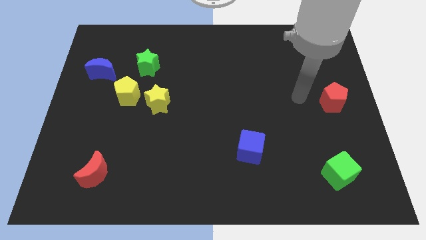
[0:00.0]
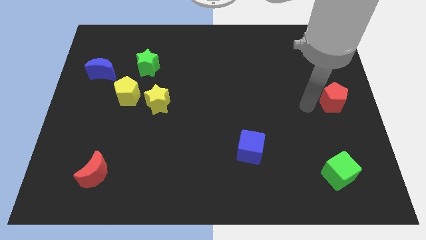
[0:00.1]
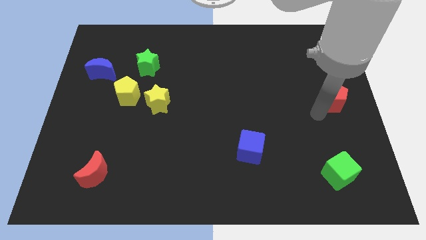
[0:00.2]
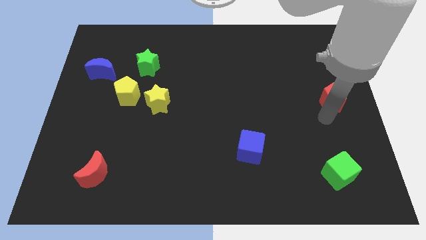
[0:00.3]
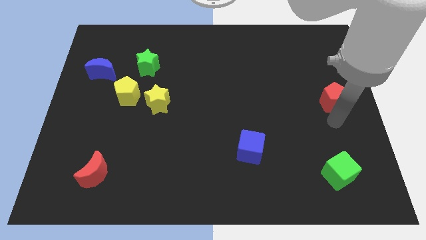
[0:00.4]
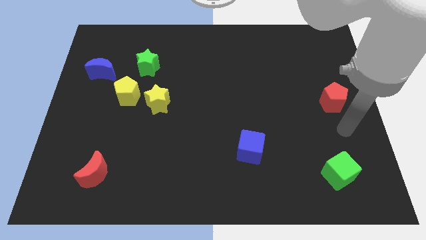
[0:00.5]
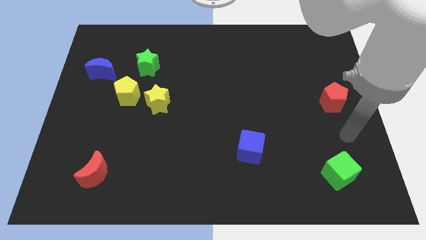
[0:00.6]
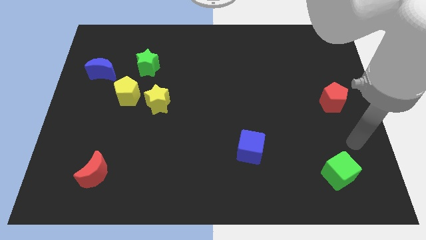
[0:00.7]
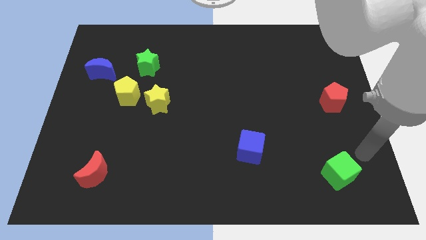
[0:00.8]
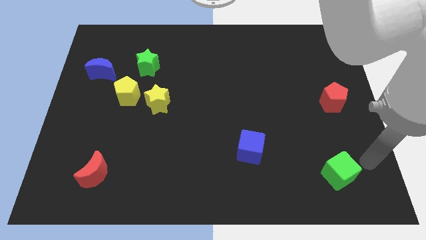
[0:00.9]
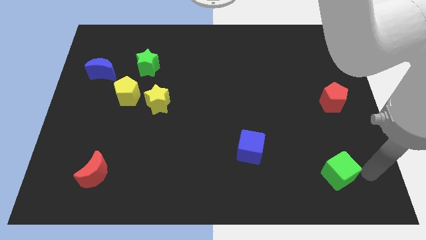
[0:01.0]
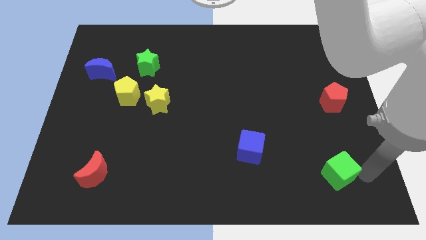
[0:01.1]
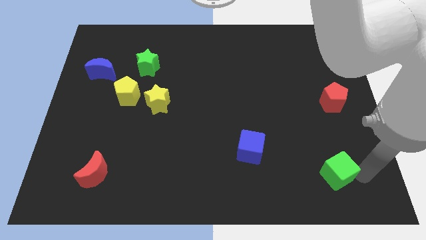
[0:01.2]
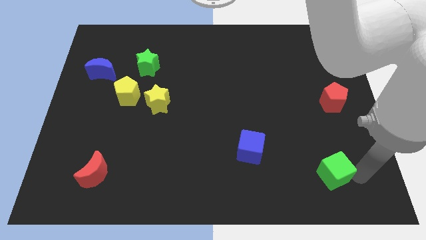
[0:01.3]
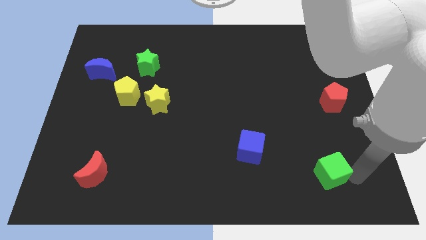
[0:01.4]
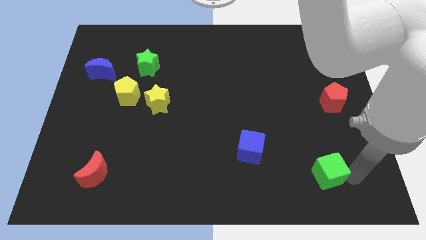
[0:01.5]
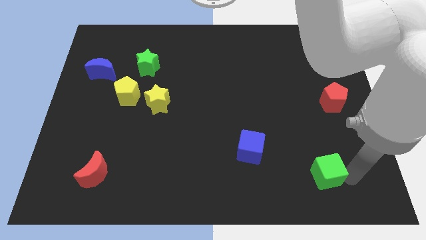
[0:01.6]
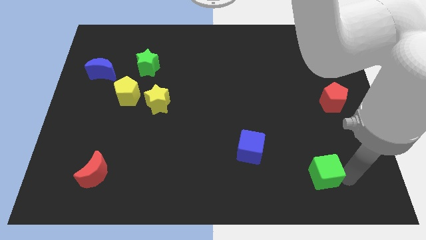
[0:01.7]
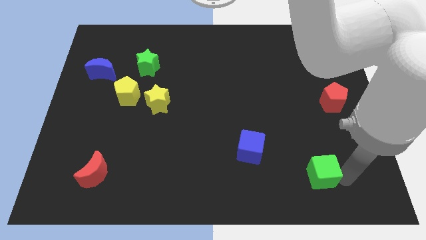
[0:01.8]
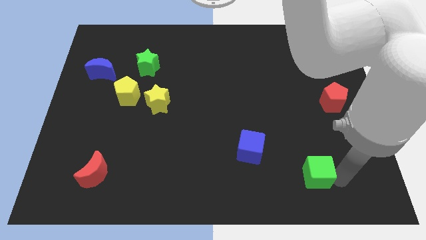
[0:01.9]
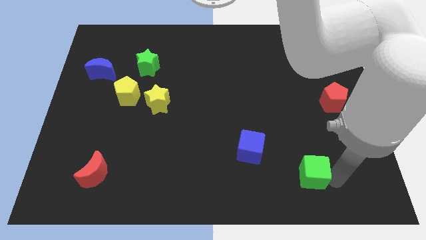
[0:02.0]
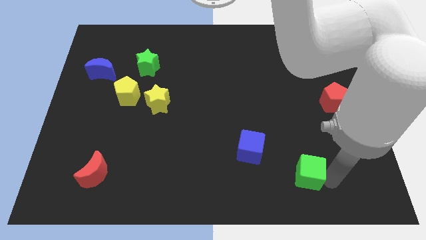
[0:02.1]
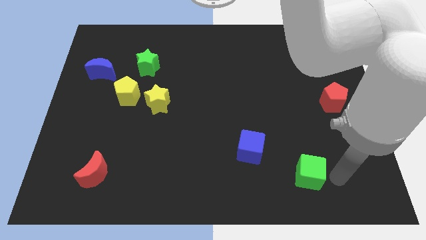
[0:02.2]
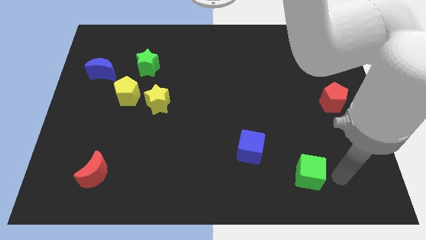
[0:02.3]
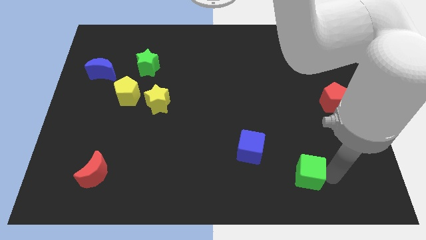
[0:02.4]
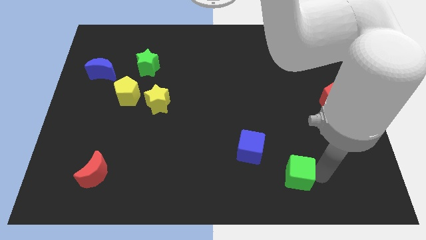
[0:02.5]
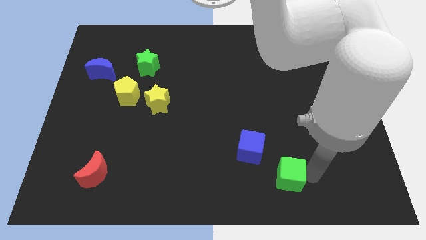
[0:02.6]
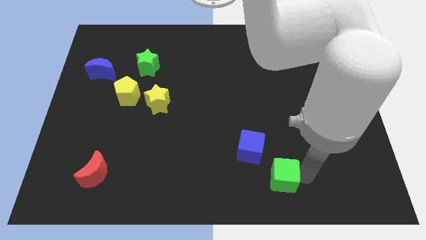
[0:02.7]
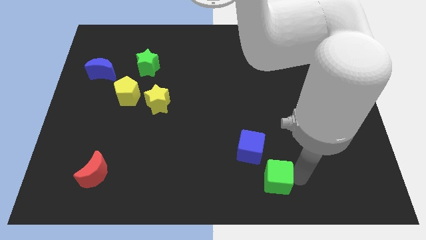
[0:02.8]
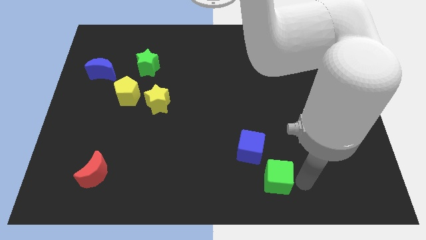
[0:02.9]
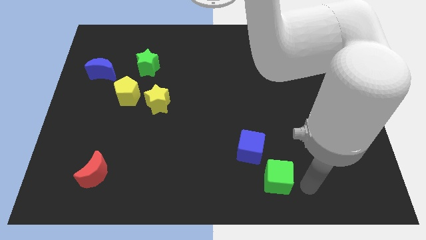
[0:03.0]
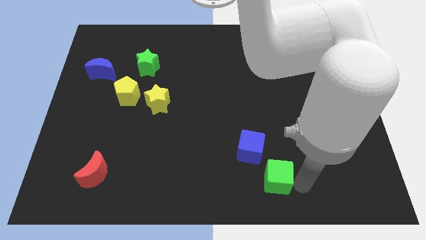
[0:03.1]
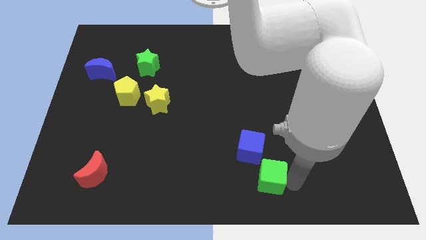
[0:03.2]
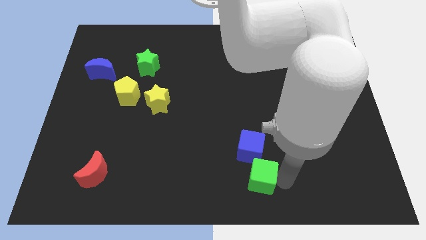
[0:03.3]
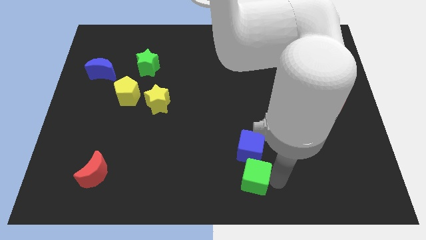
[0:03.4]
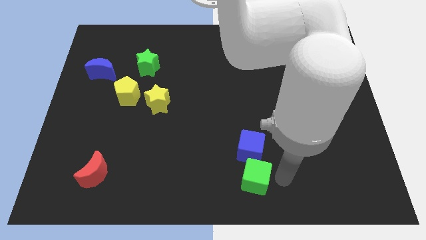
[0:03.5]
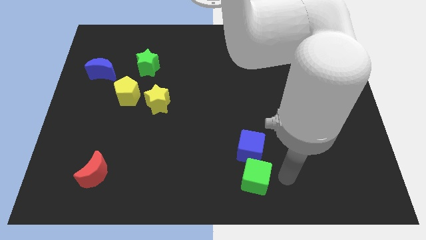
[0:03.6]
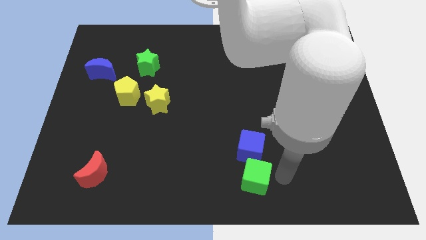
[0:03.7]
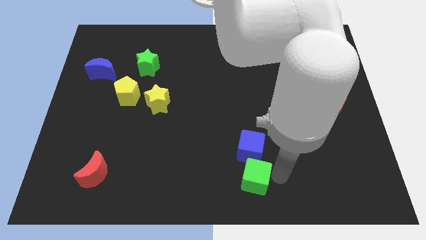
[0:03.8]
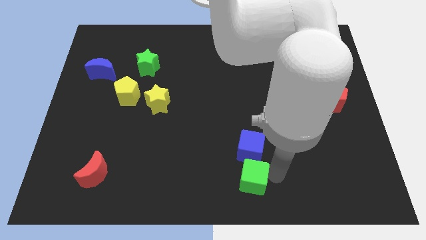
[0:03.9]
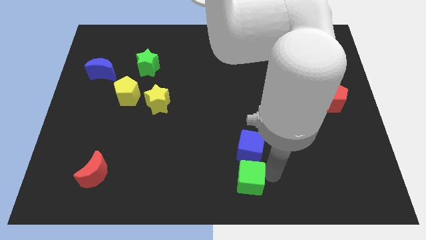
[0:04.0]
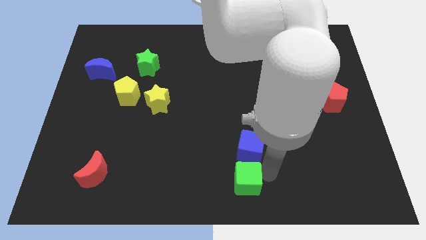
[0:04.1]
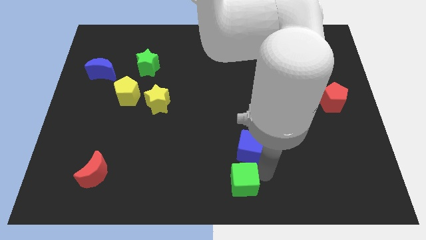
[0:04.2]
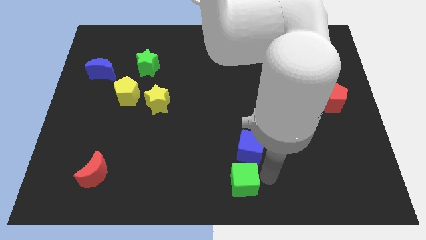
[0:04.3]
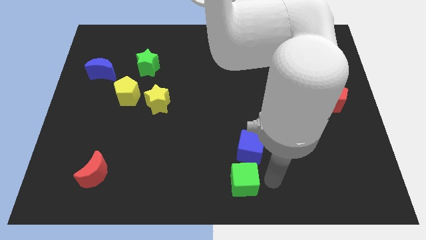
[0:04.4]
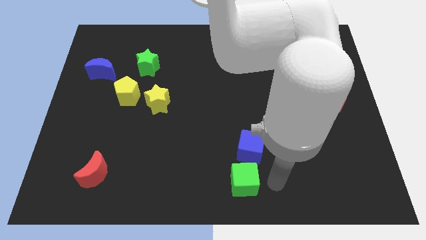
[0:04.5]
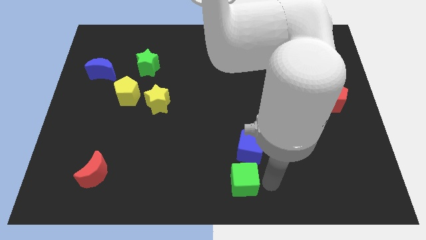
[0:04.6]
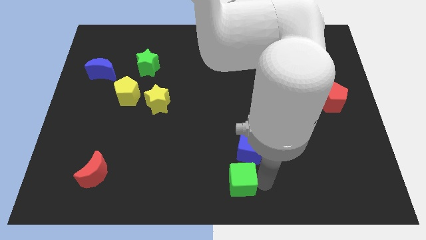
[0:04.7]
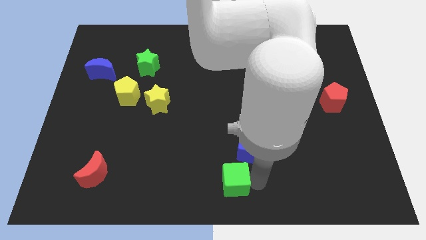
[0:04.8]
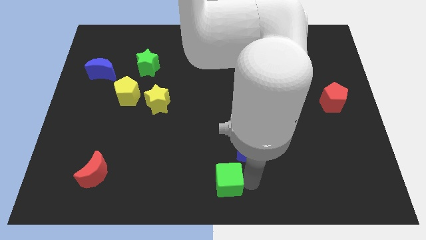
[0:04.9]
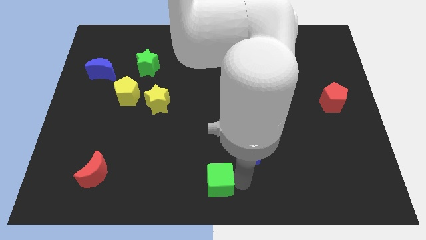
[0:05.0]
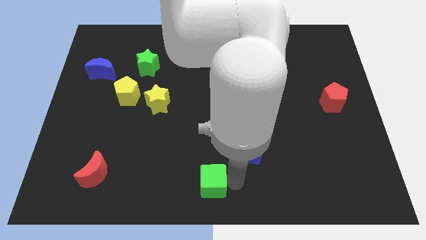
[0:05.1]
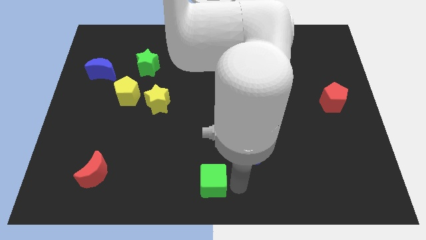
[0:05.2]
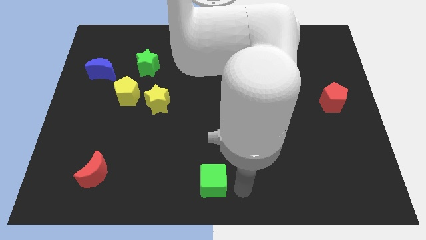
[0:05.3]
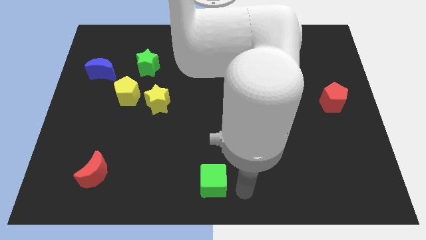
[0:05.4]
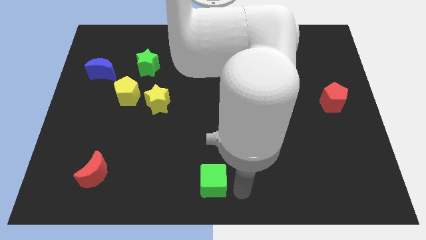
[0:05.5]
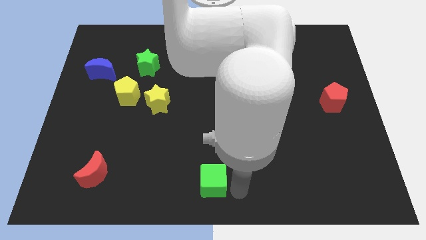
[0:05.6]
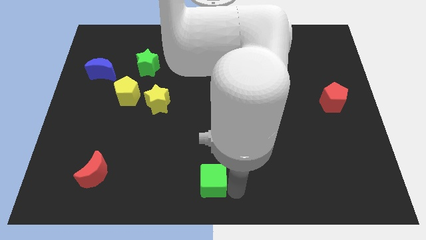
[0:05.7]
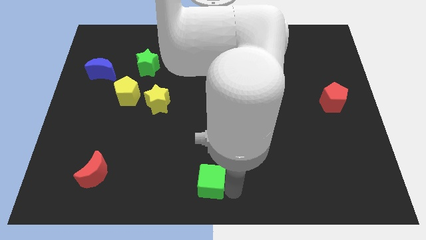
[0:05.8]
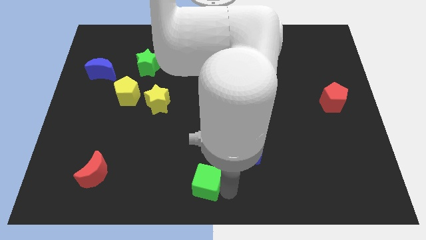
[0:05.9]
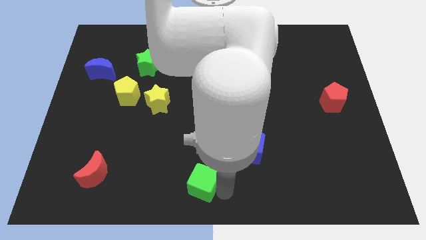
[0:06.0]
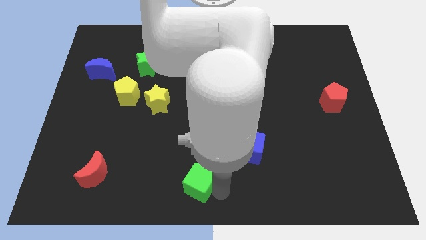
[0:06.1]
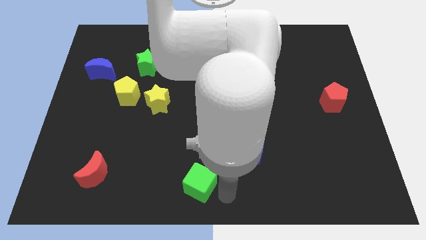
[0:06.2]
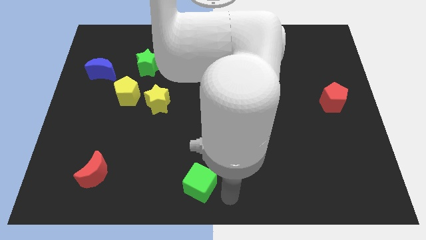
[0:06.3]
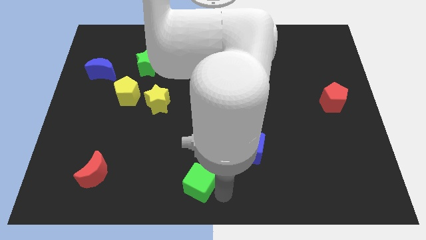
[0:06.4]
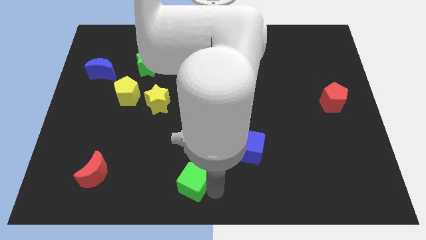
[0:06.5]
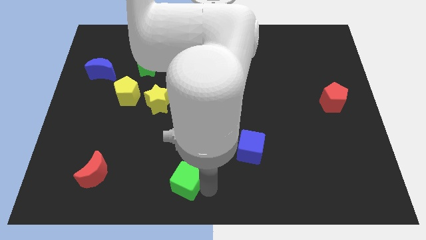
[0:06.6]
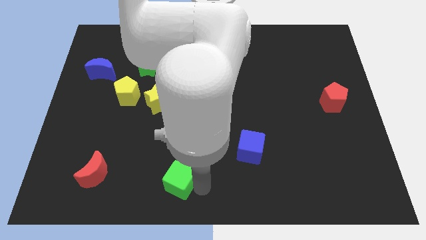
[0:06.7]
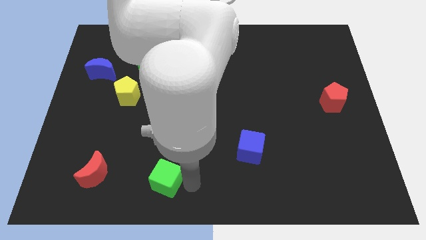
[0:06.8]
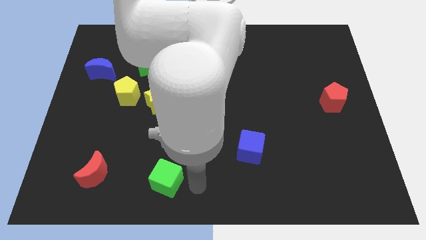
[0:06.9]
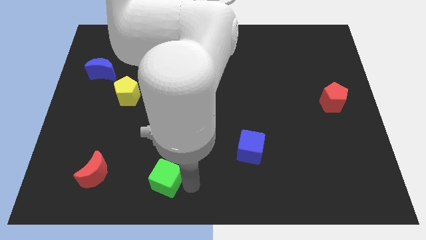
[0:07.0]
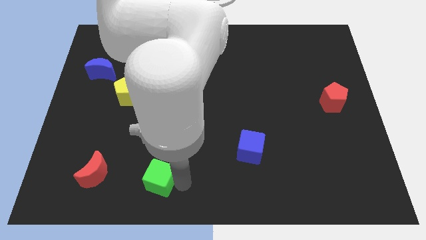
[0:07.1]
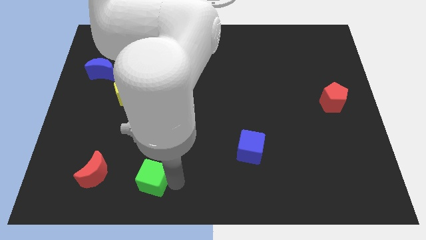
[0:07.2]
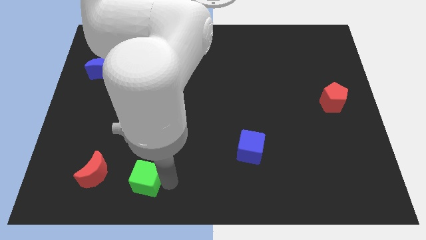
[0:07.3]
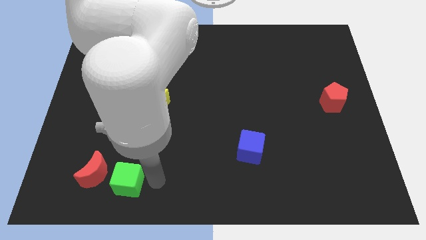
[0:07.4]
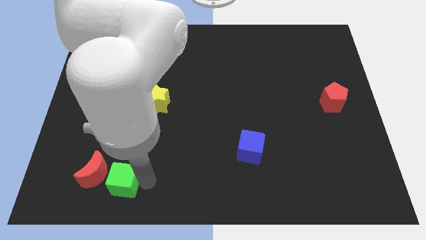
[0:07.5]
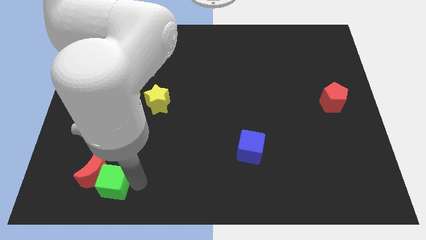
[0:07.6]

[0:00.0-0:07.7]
put the green cube towards the red moon
